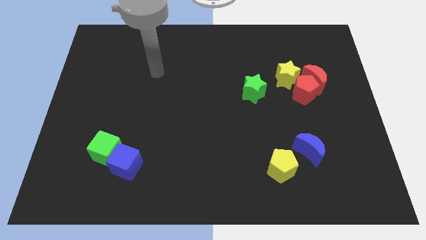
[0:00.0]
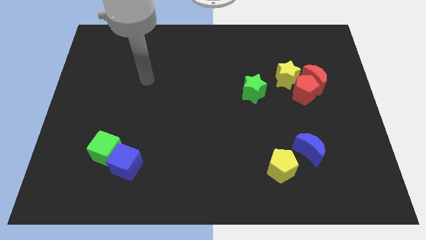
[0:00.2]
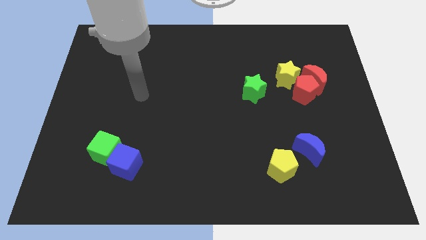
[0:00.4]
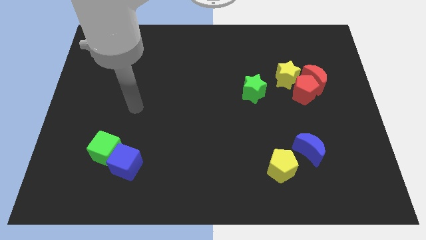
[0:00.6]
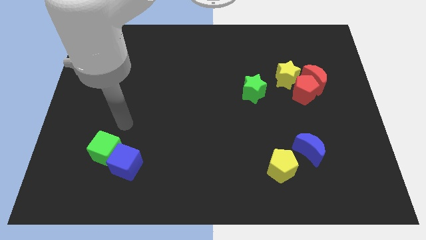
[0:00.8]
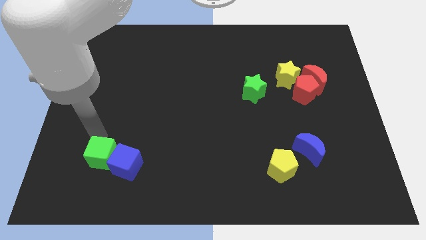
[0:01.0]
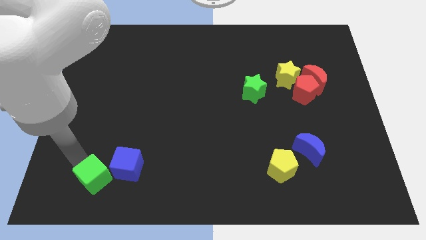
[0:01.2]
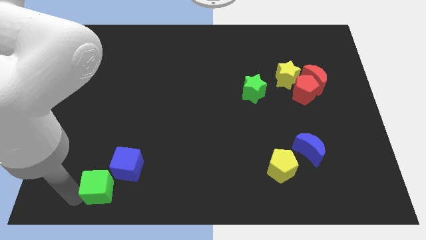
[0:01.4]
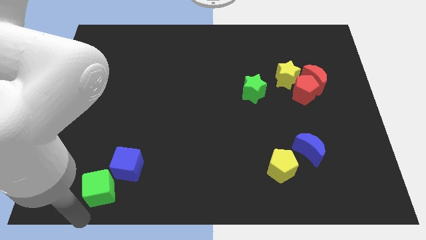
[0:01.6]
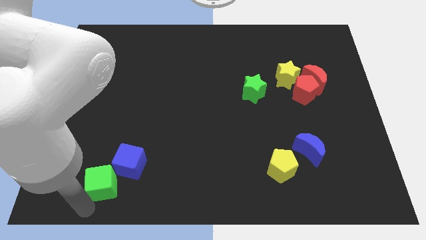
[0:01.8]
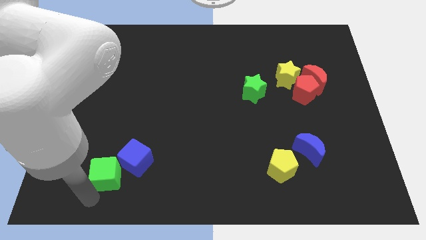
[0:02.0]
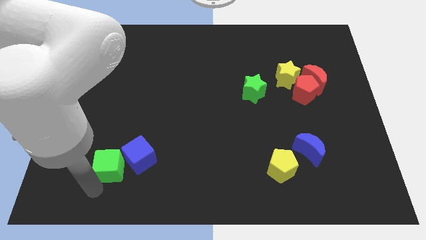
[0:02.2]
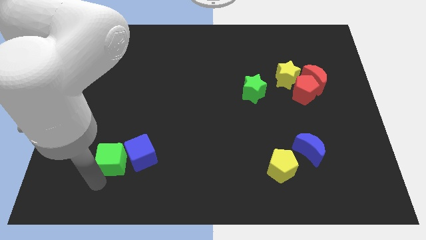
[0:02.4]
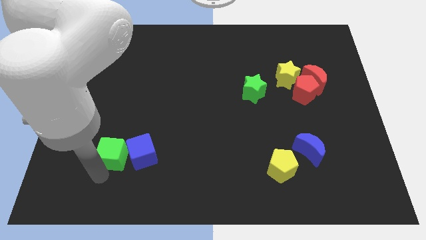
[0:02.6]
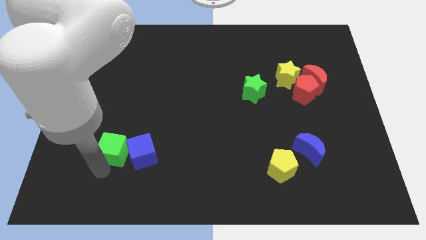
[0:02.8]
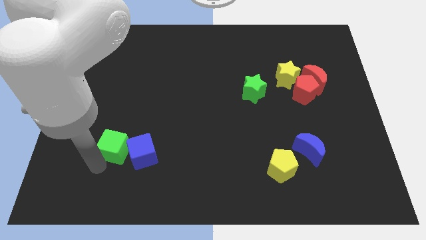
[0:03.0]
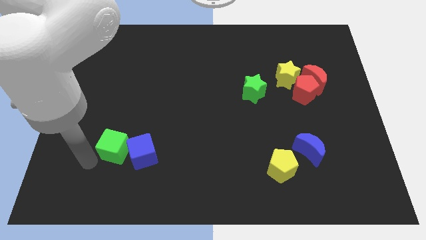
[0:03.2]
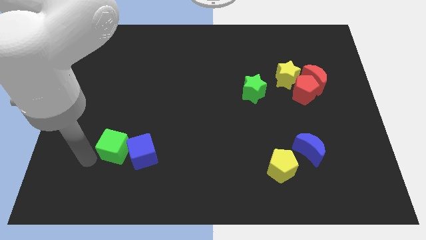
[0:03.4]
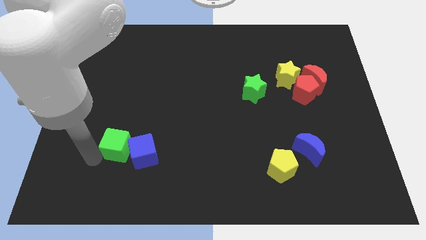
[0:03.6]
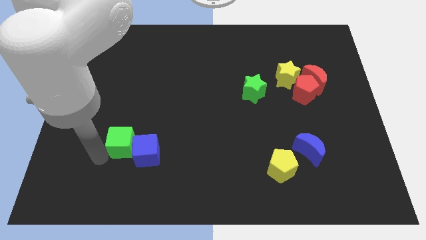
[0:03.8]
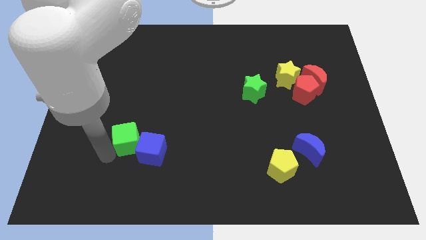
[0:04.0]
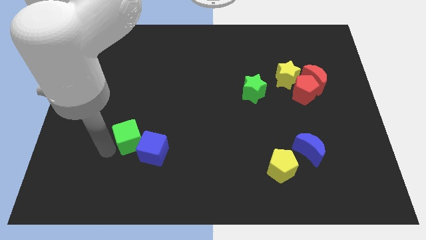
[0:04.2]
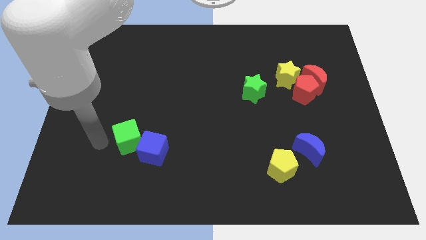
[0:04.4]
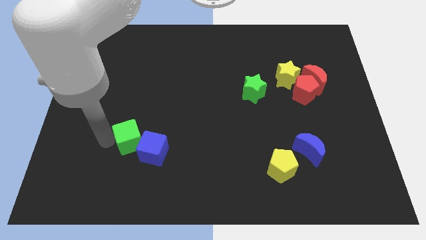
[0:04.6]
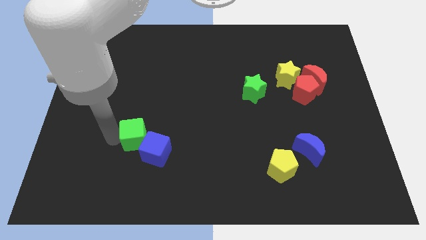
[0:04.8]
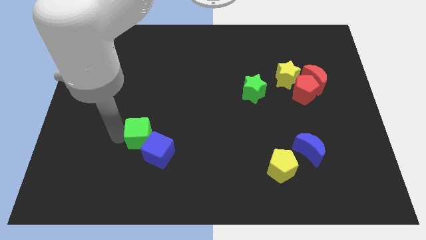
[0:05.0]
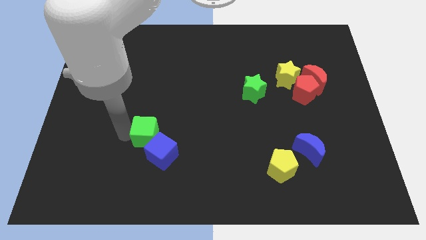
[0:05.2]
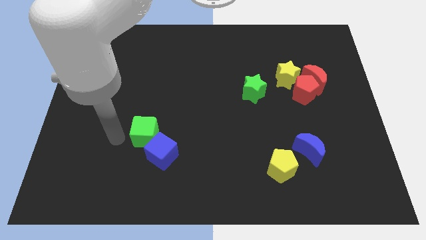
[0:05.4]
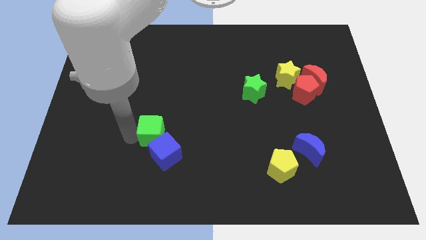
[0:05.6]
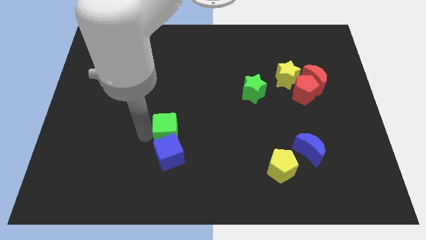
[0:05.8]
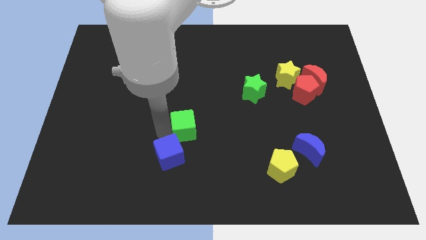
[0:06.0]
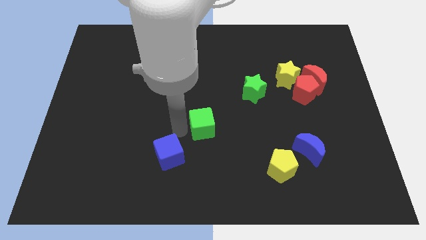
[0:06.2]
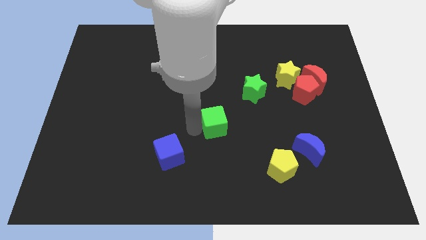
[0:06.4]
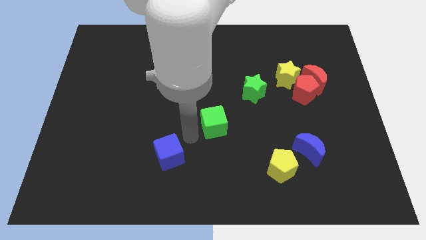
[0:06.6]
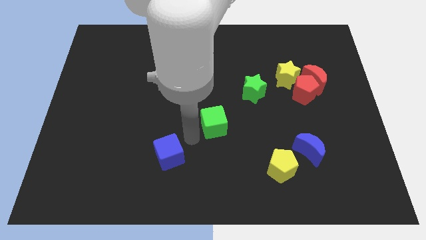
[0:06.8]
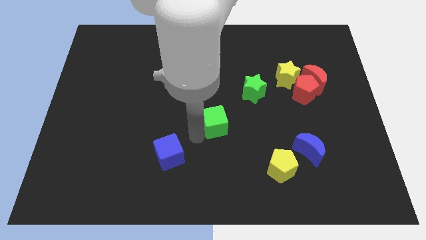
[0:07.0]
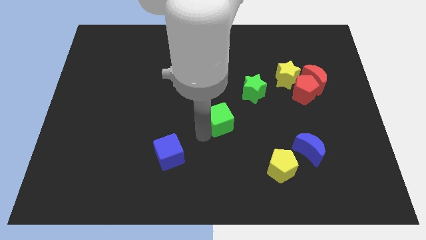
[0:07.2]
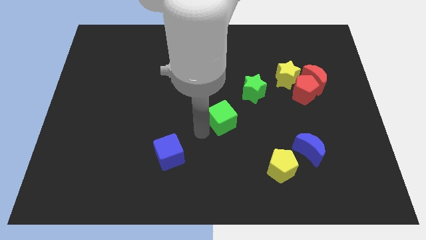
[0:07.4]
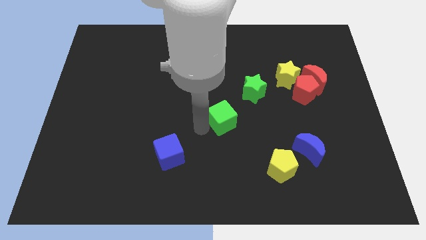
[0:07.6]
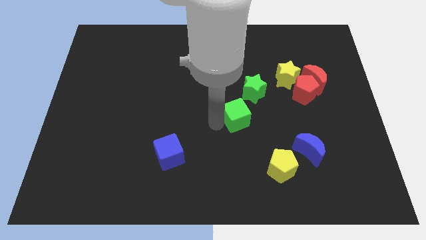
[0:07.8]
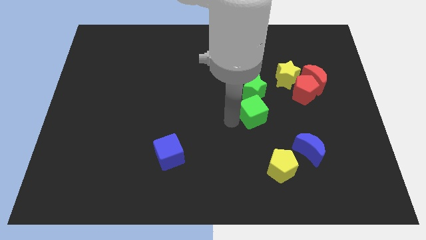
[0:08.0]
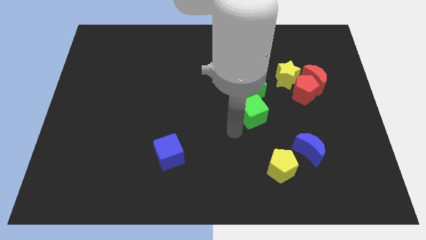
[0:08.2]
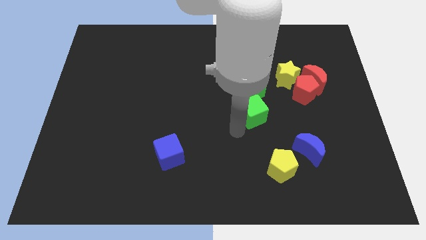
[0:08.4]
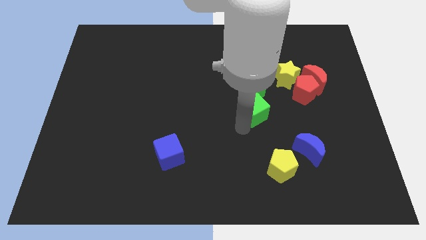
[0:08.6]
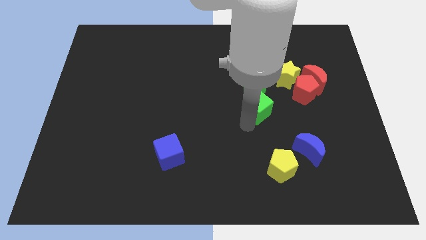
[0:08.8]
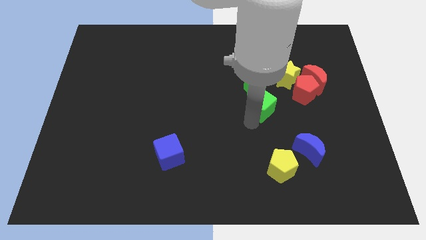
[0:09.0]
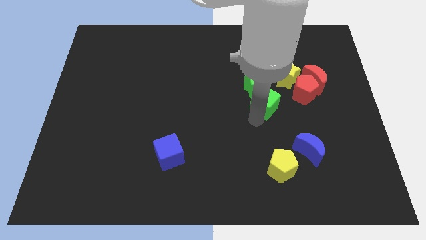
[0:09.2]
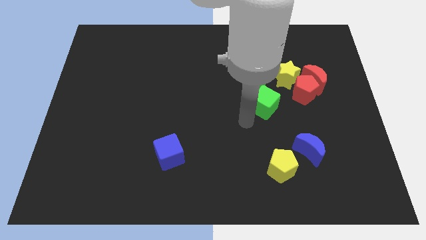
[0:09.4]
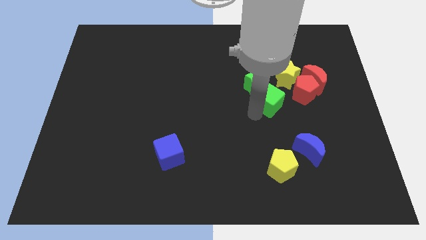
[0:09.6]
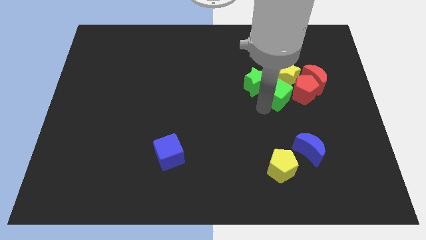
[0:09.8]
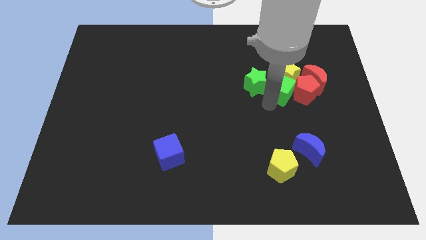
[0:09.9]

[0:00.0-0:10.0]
push the green cube next to the yellow star

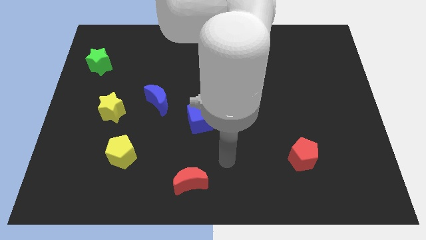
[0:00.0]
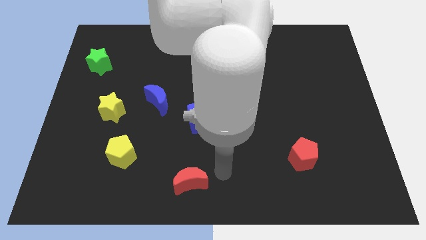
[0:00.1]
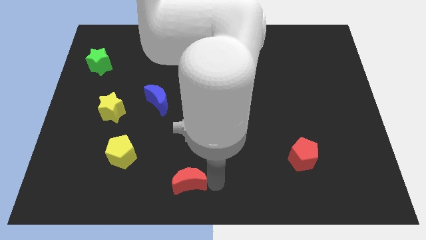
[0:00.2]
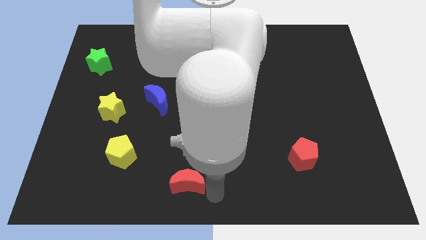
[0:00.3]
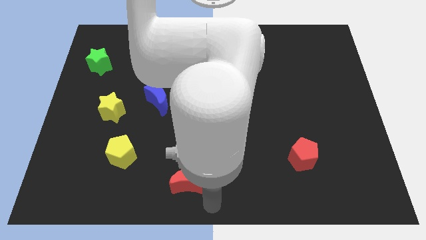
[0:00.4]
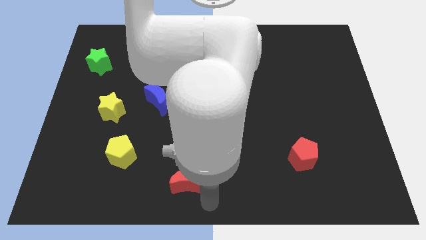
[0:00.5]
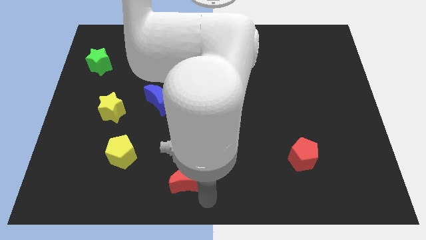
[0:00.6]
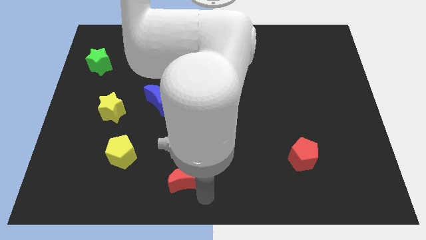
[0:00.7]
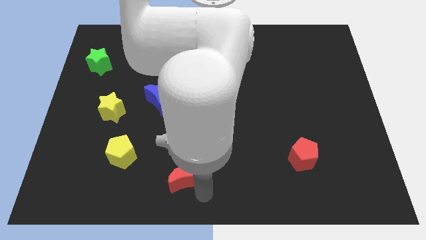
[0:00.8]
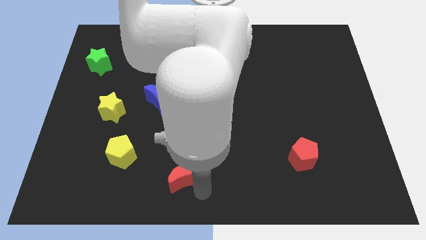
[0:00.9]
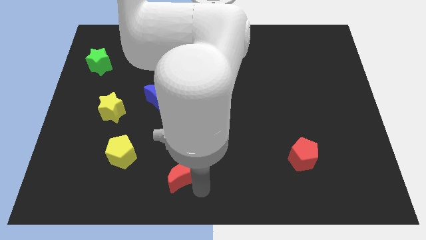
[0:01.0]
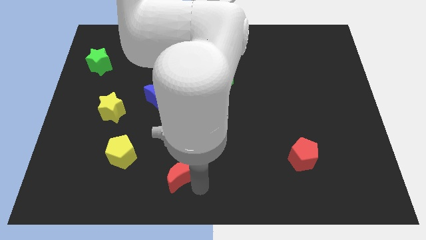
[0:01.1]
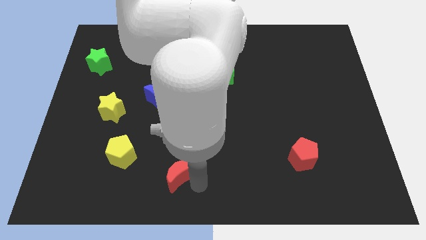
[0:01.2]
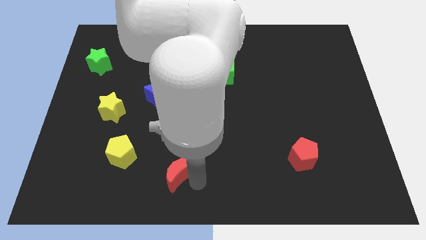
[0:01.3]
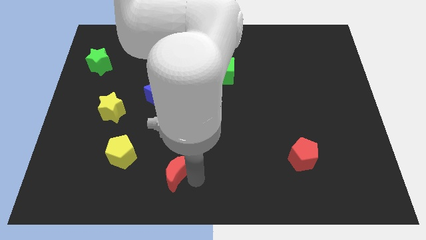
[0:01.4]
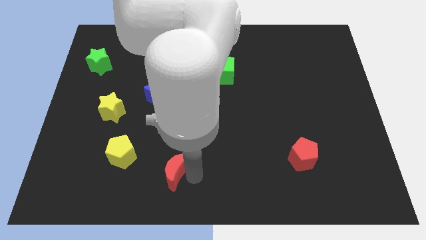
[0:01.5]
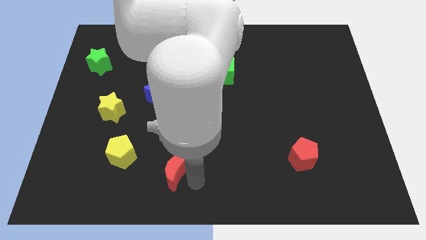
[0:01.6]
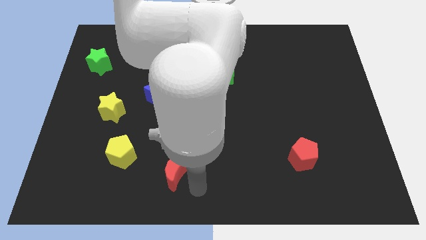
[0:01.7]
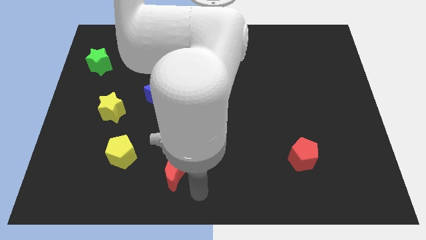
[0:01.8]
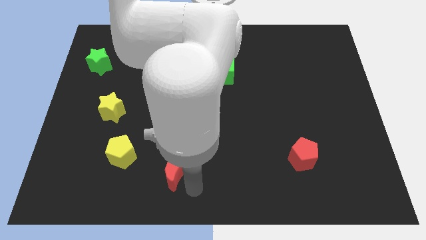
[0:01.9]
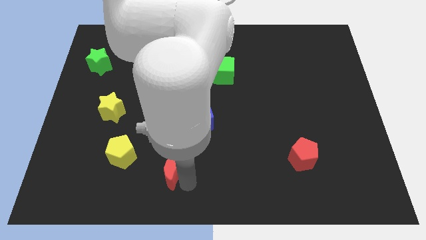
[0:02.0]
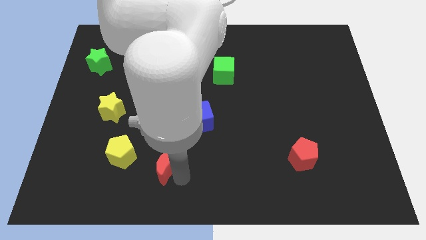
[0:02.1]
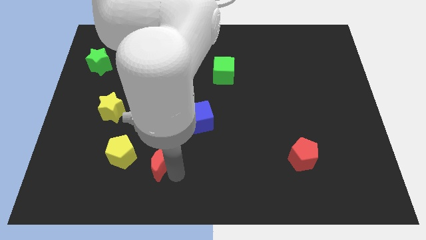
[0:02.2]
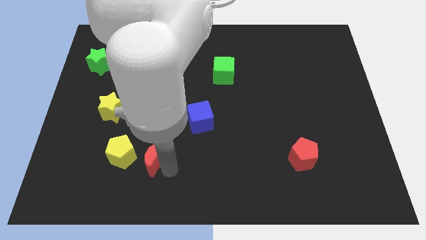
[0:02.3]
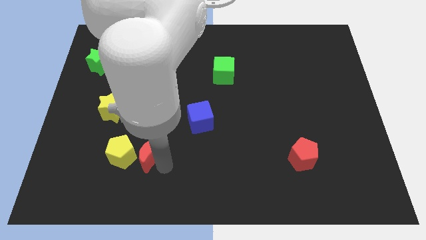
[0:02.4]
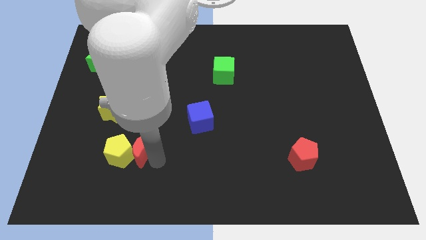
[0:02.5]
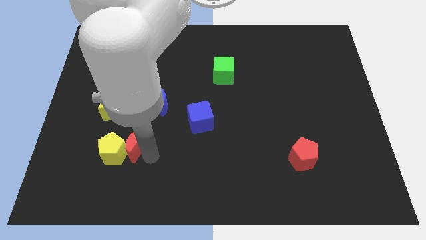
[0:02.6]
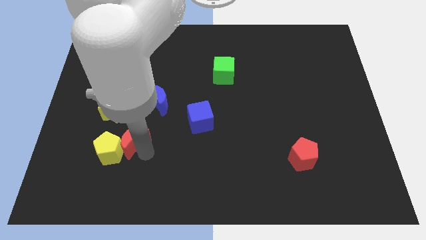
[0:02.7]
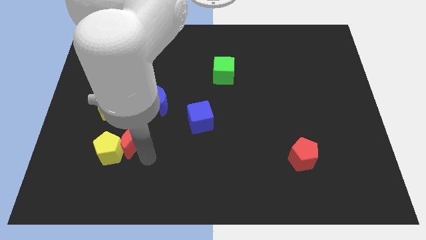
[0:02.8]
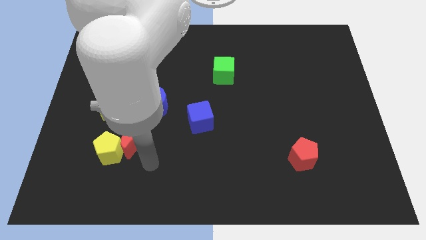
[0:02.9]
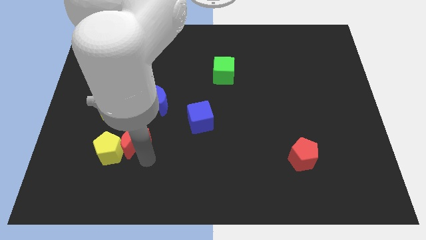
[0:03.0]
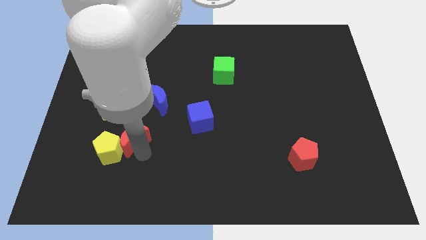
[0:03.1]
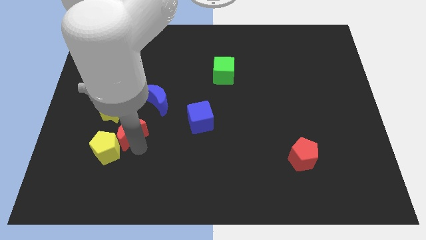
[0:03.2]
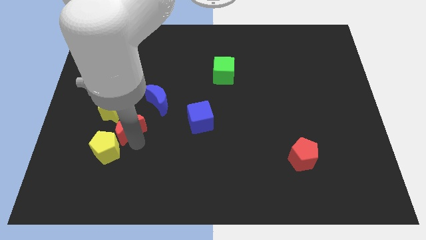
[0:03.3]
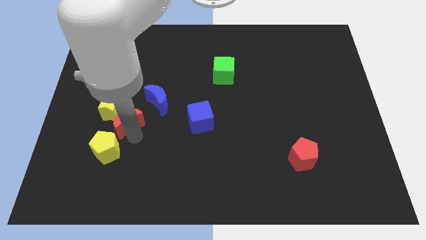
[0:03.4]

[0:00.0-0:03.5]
put the red moon towards the yellow star
